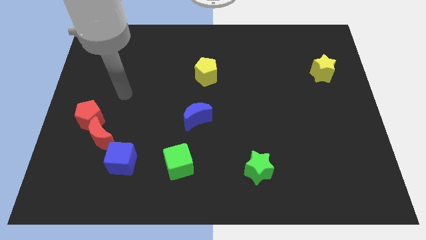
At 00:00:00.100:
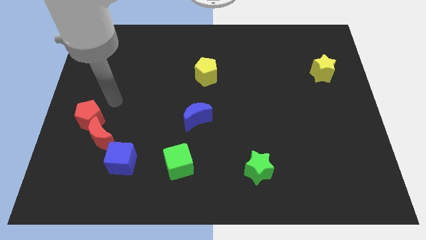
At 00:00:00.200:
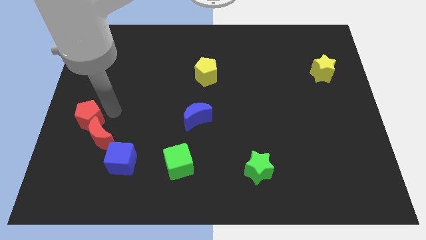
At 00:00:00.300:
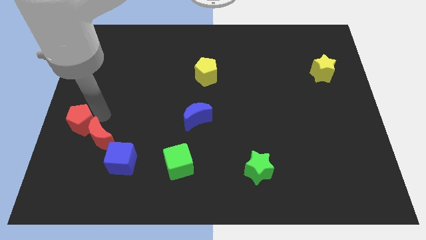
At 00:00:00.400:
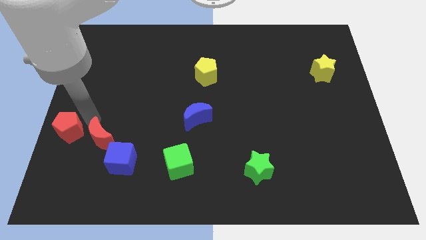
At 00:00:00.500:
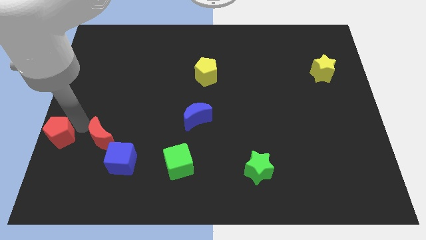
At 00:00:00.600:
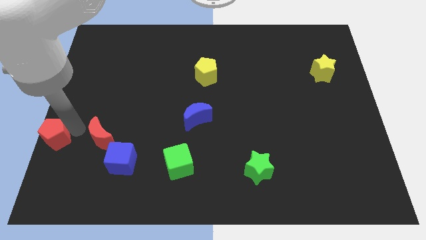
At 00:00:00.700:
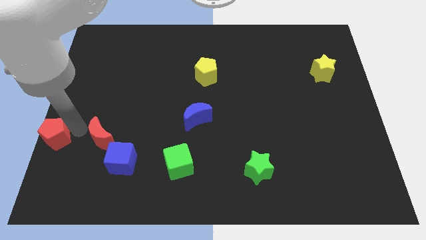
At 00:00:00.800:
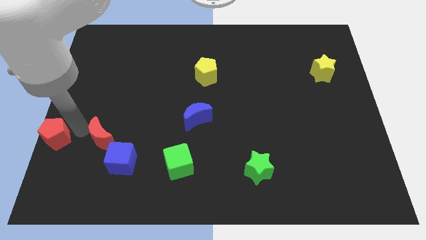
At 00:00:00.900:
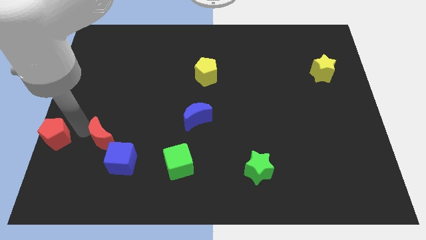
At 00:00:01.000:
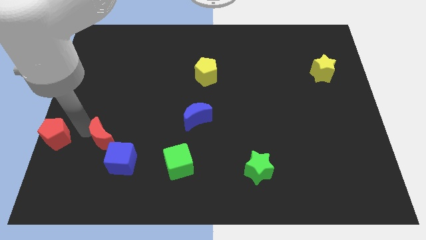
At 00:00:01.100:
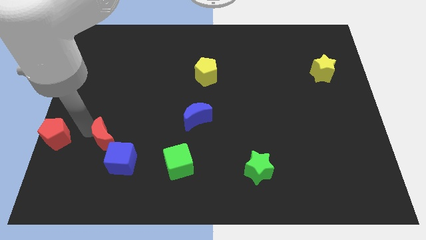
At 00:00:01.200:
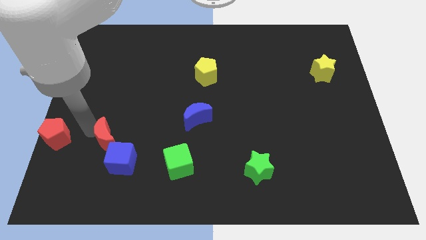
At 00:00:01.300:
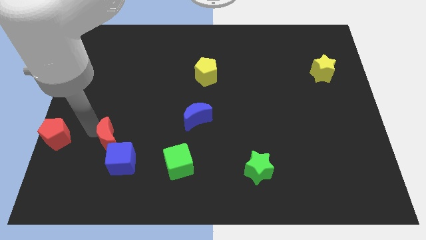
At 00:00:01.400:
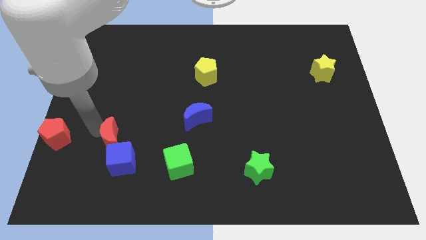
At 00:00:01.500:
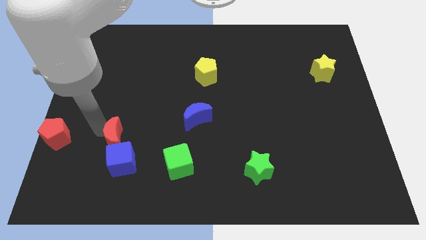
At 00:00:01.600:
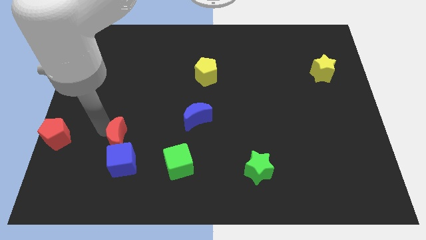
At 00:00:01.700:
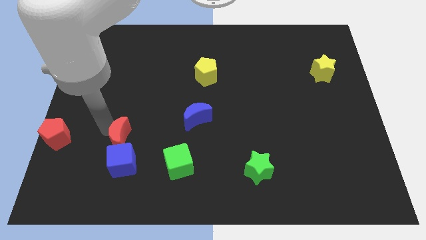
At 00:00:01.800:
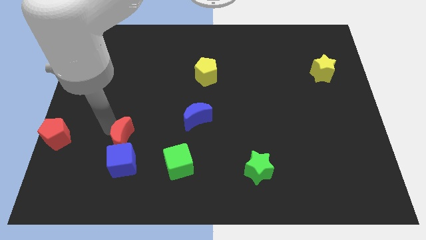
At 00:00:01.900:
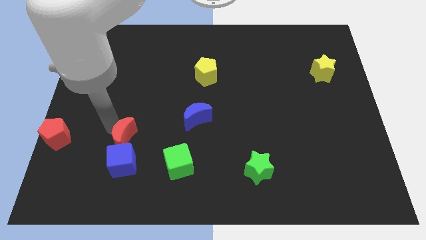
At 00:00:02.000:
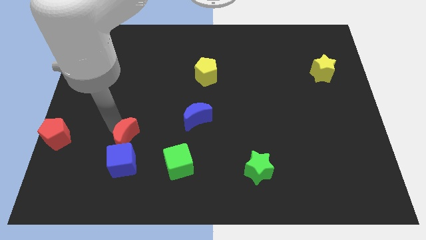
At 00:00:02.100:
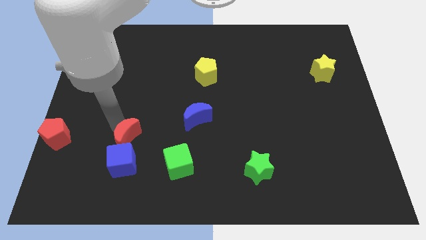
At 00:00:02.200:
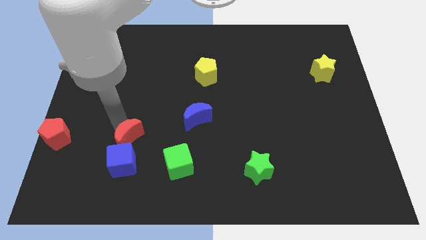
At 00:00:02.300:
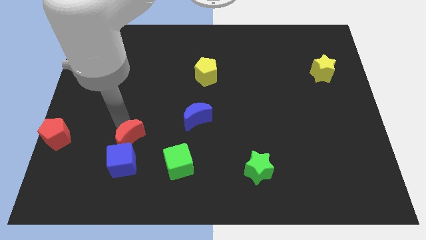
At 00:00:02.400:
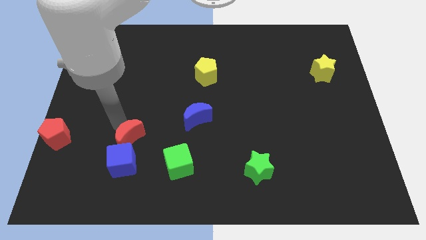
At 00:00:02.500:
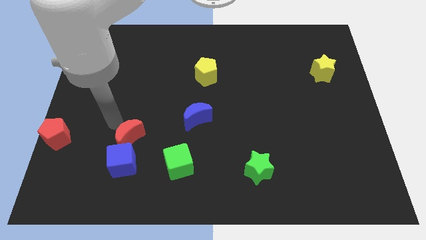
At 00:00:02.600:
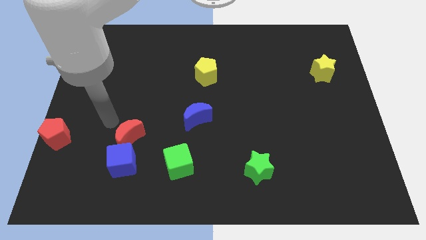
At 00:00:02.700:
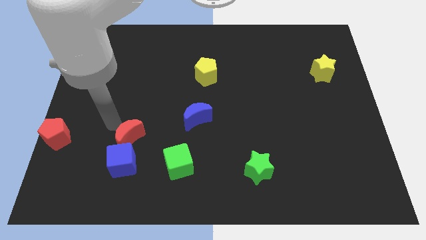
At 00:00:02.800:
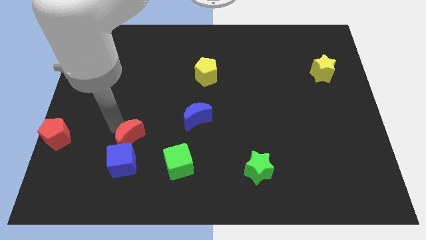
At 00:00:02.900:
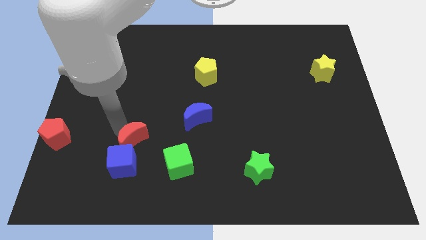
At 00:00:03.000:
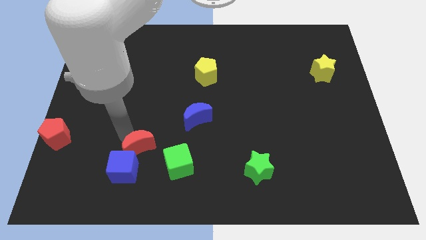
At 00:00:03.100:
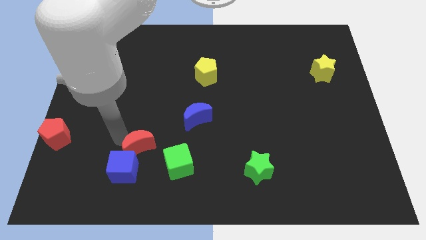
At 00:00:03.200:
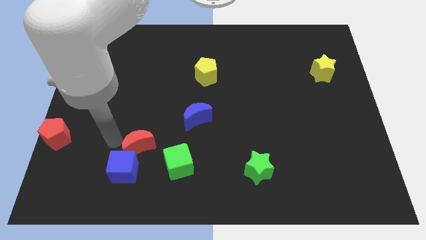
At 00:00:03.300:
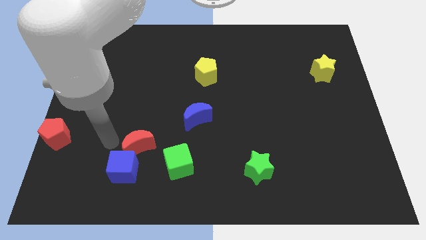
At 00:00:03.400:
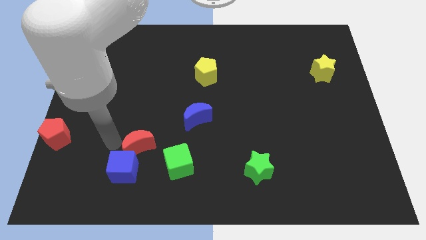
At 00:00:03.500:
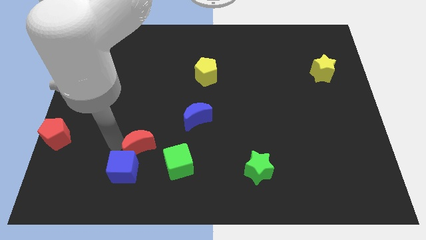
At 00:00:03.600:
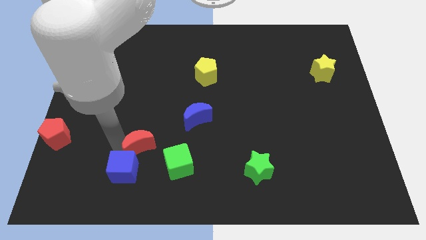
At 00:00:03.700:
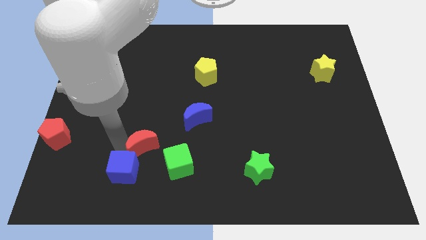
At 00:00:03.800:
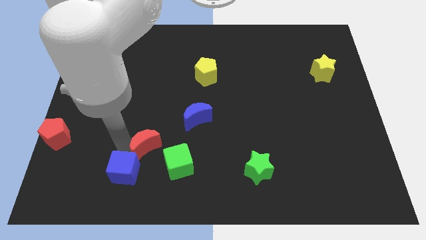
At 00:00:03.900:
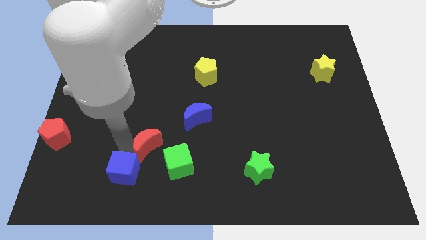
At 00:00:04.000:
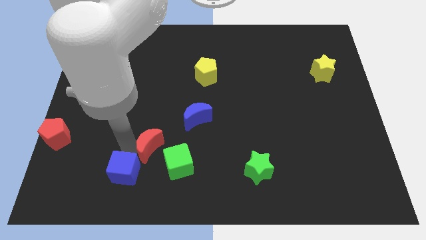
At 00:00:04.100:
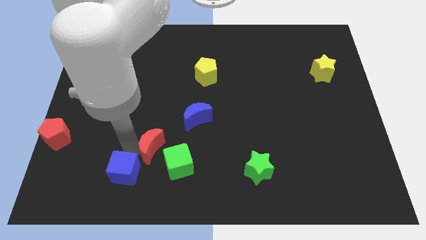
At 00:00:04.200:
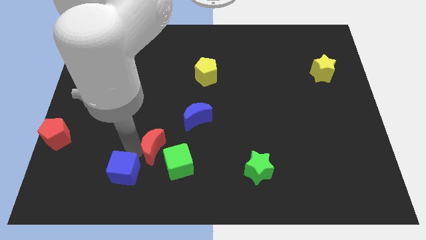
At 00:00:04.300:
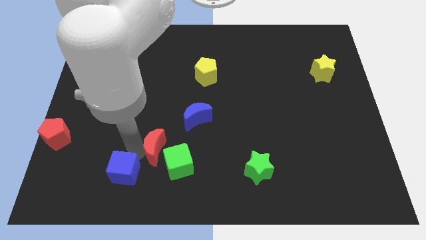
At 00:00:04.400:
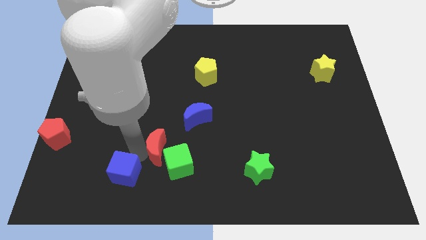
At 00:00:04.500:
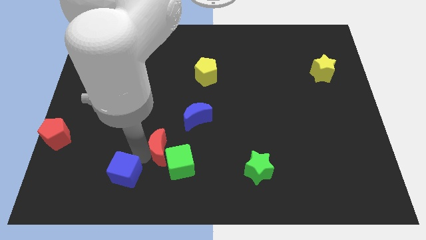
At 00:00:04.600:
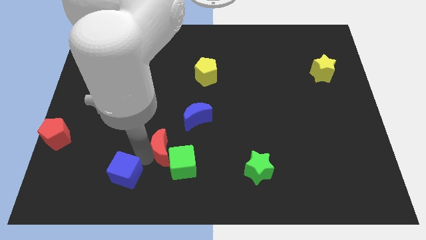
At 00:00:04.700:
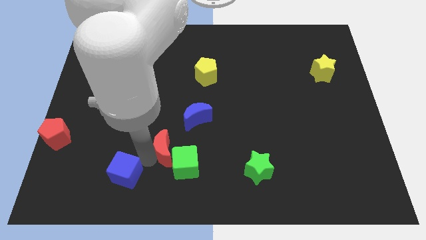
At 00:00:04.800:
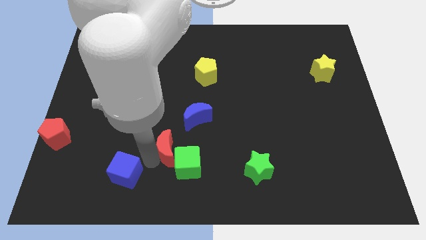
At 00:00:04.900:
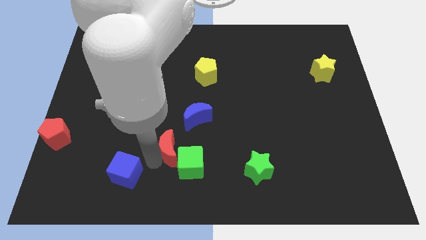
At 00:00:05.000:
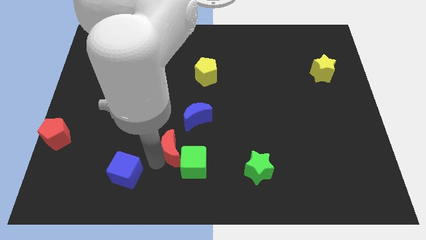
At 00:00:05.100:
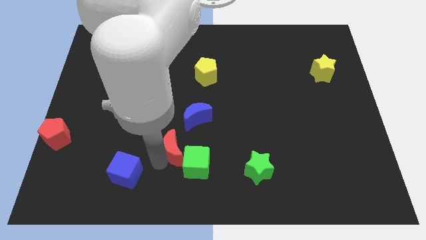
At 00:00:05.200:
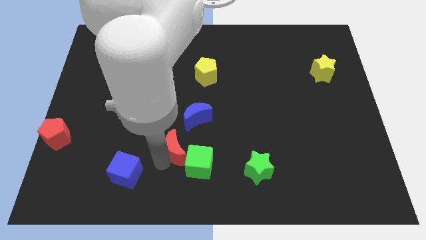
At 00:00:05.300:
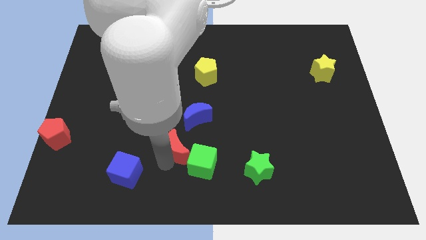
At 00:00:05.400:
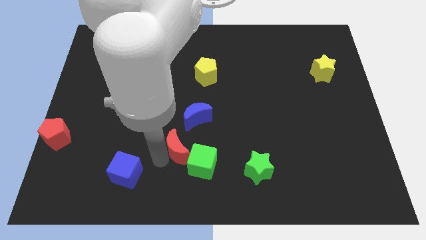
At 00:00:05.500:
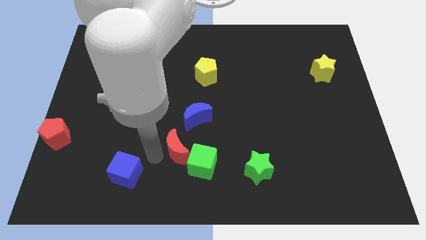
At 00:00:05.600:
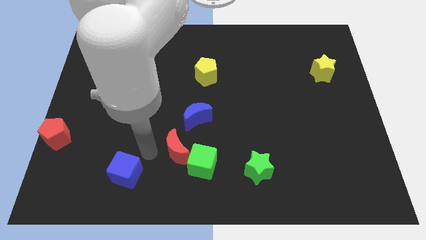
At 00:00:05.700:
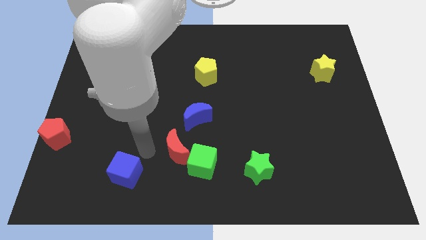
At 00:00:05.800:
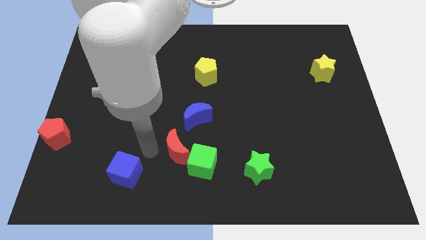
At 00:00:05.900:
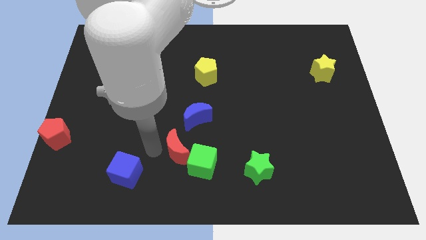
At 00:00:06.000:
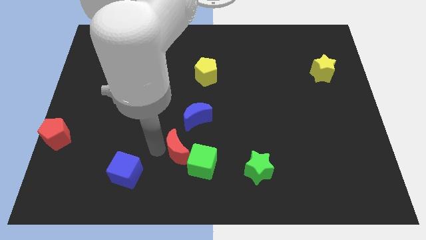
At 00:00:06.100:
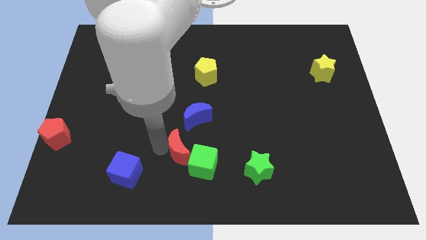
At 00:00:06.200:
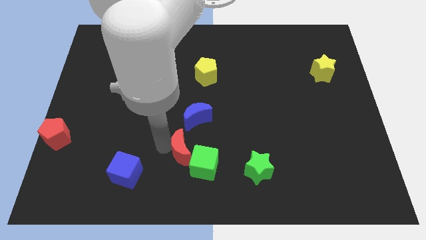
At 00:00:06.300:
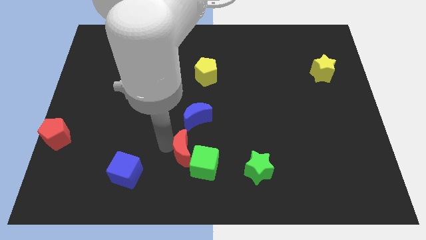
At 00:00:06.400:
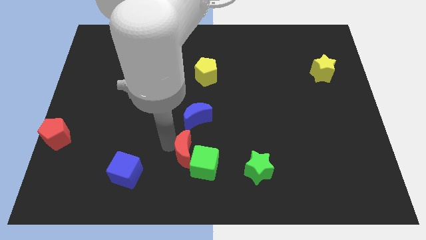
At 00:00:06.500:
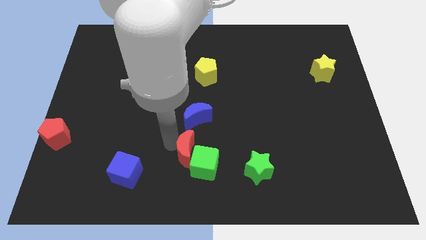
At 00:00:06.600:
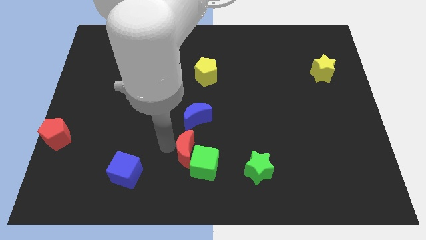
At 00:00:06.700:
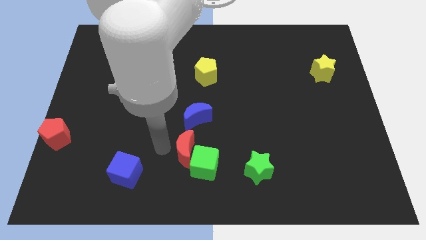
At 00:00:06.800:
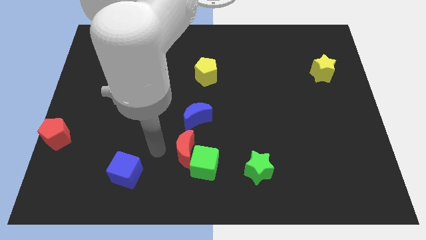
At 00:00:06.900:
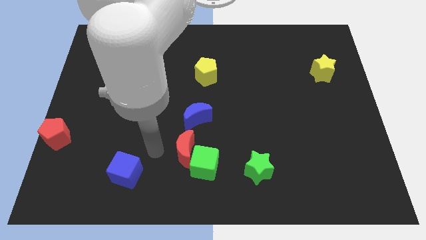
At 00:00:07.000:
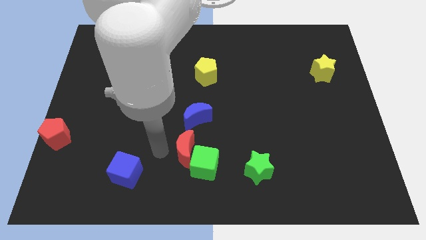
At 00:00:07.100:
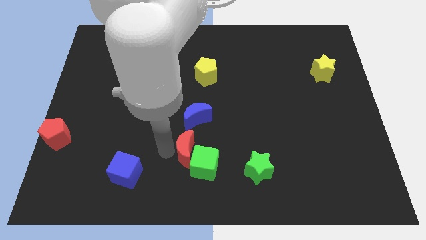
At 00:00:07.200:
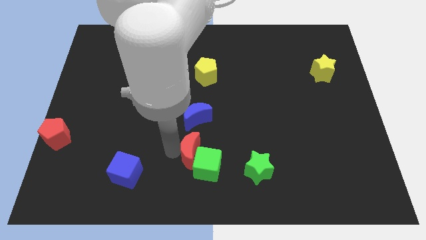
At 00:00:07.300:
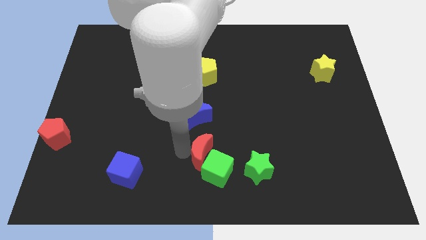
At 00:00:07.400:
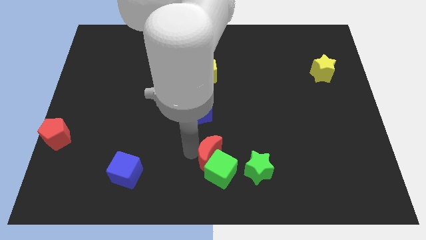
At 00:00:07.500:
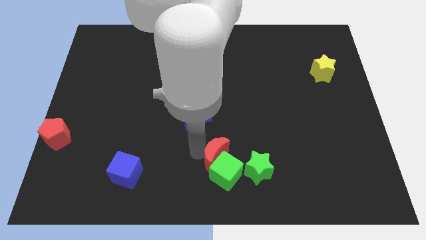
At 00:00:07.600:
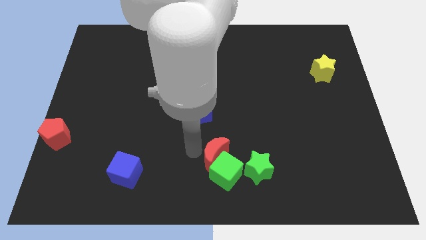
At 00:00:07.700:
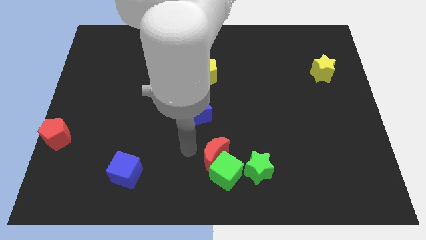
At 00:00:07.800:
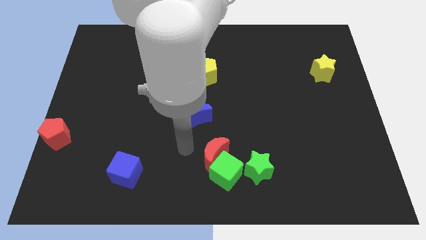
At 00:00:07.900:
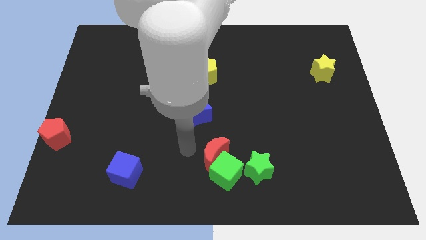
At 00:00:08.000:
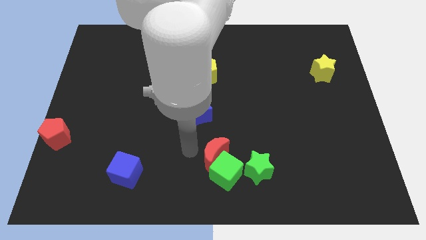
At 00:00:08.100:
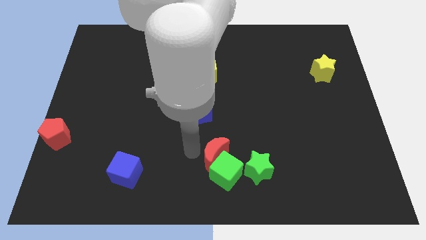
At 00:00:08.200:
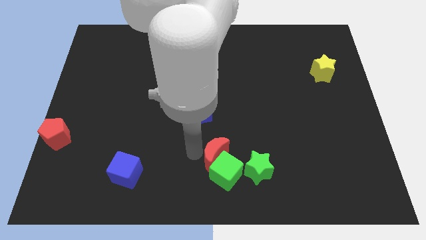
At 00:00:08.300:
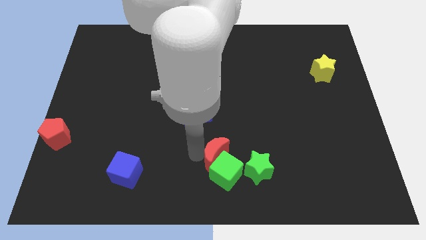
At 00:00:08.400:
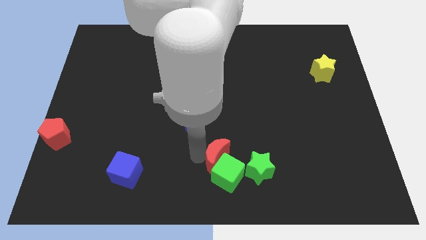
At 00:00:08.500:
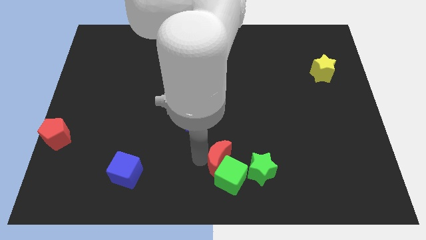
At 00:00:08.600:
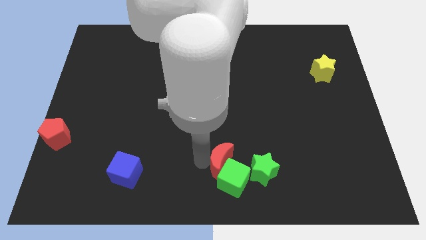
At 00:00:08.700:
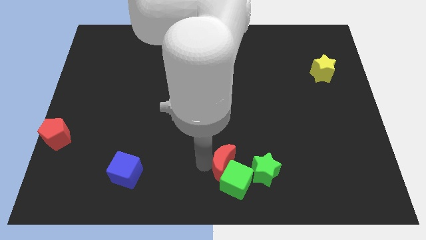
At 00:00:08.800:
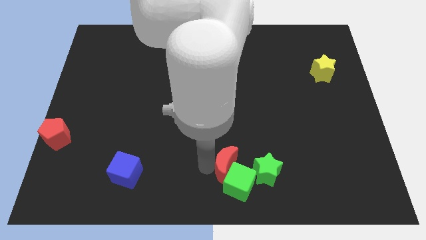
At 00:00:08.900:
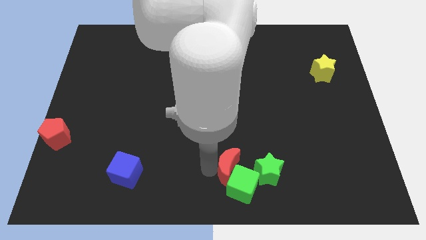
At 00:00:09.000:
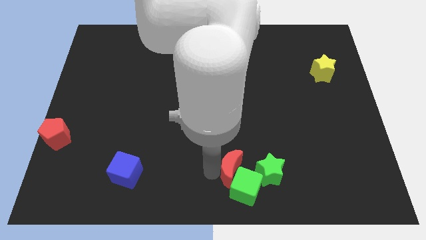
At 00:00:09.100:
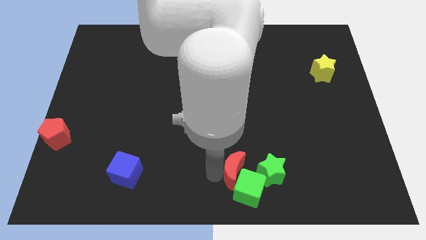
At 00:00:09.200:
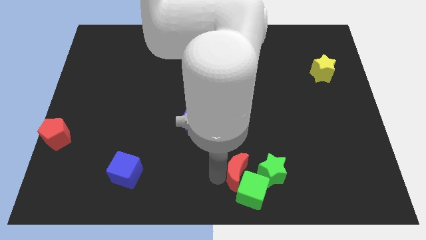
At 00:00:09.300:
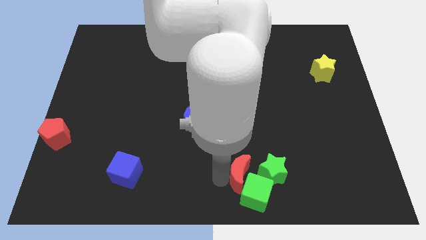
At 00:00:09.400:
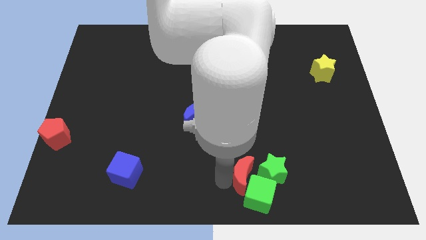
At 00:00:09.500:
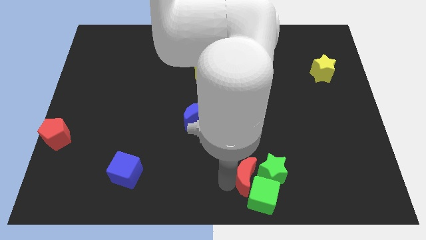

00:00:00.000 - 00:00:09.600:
put the red moon close to the green star
